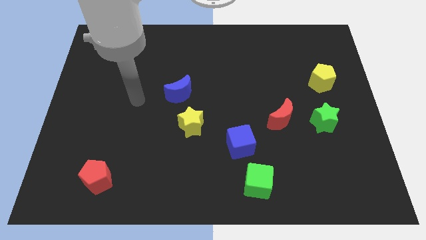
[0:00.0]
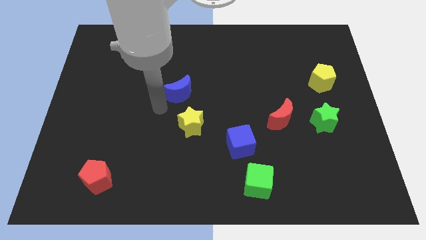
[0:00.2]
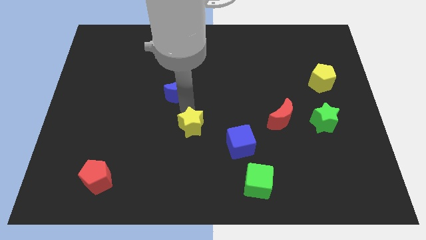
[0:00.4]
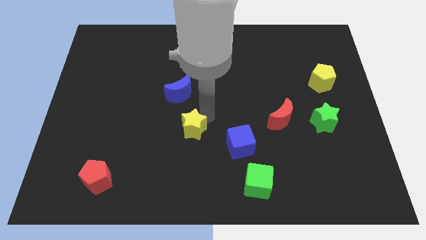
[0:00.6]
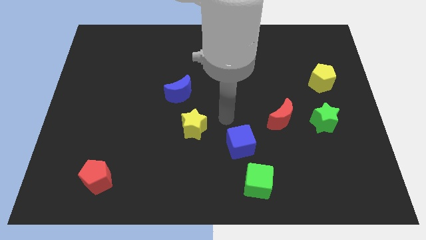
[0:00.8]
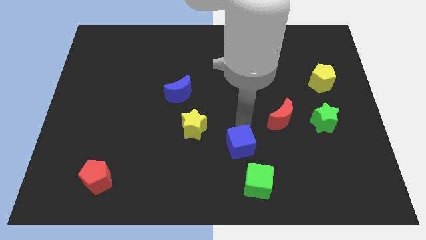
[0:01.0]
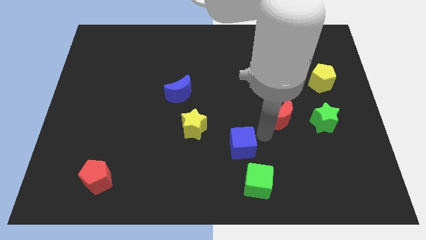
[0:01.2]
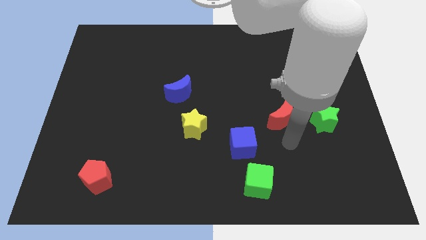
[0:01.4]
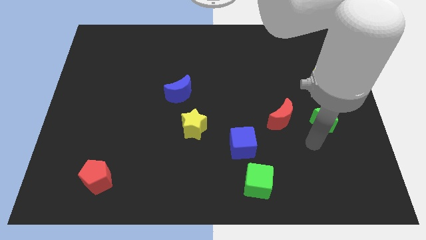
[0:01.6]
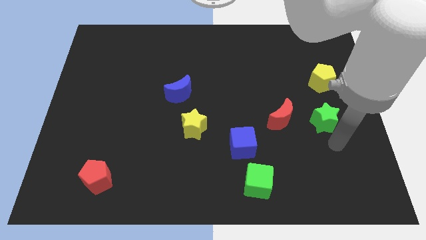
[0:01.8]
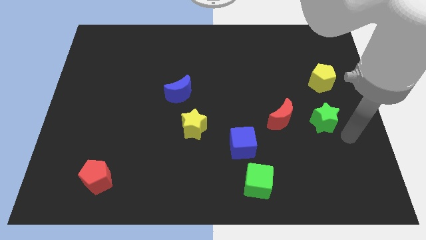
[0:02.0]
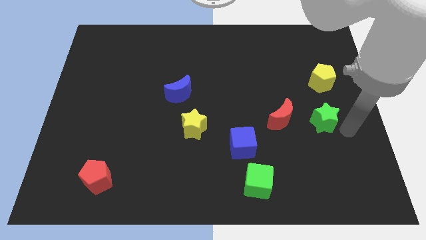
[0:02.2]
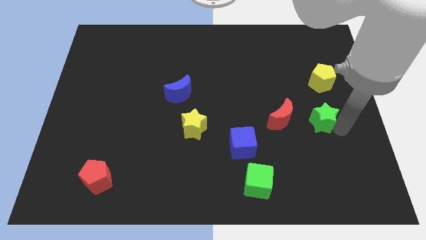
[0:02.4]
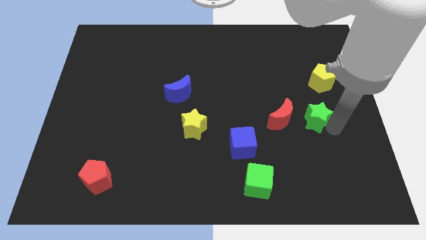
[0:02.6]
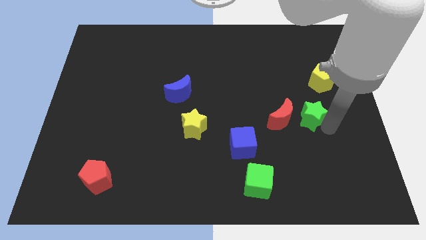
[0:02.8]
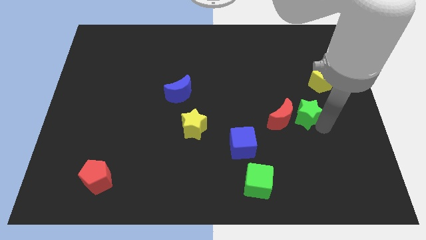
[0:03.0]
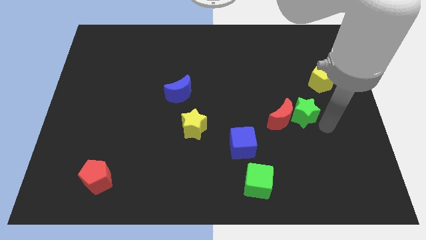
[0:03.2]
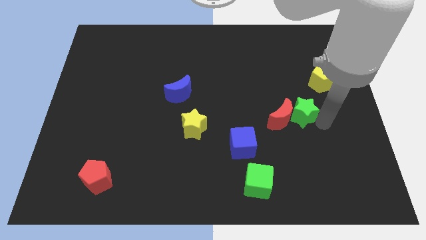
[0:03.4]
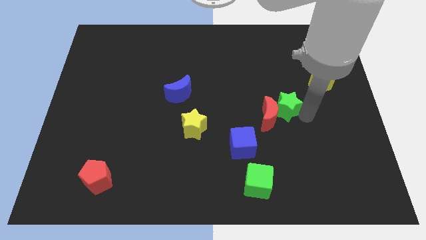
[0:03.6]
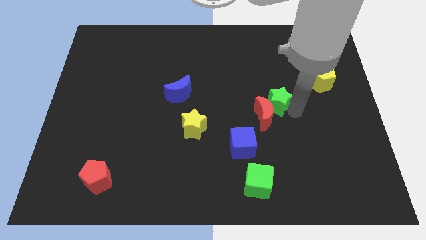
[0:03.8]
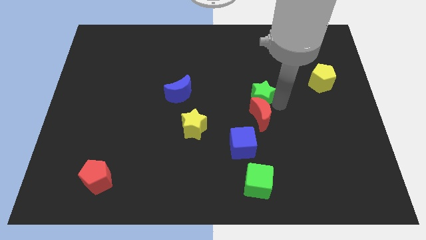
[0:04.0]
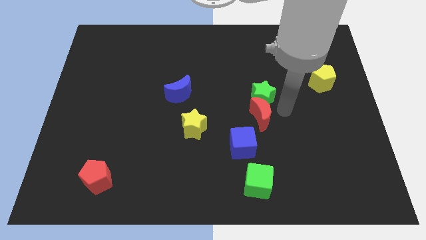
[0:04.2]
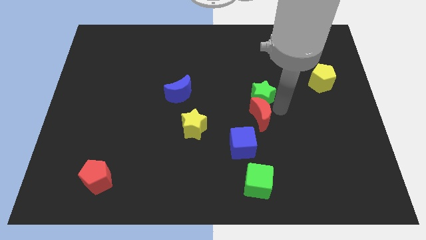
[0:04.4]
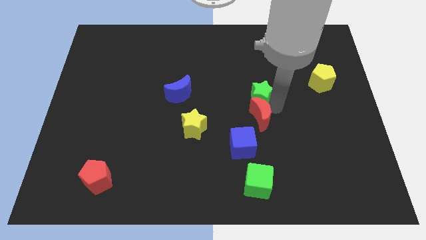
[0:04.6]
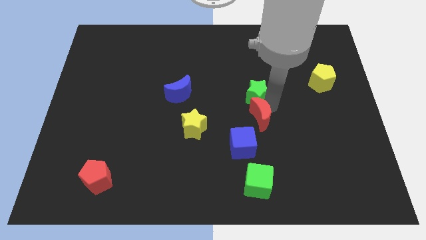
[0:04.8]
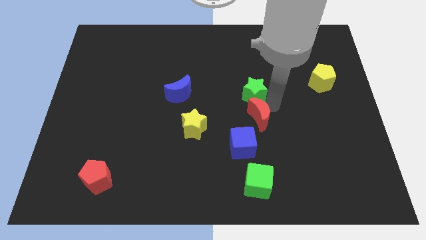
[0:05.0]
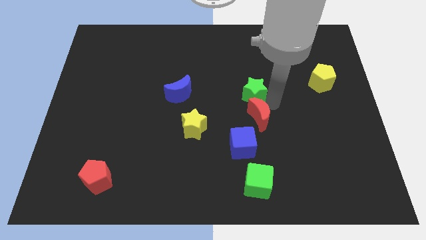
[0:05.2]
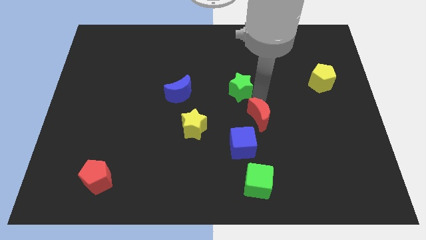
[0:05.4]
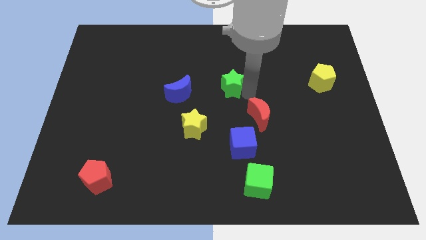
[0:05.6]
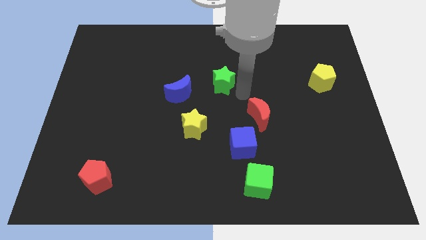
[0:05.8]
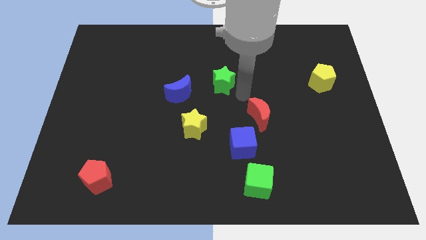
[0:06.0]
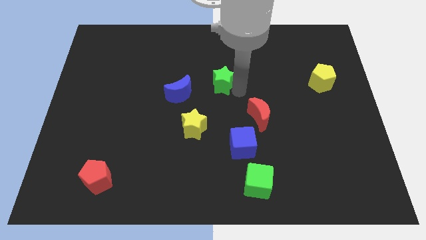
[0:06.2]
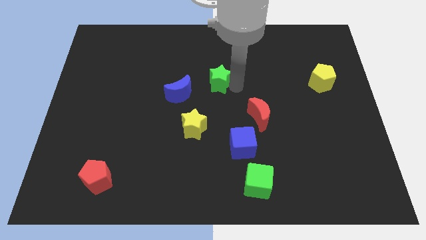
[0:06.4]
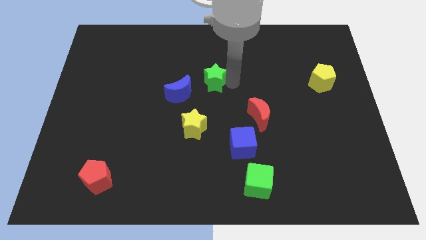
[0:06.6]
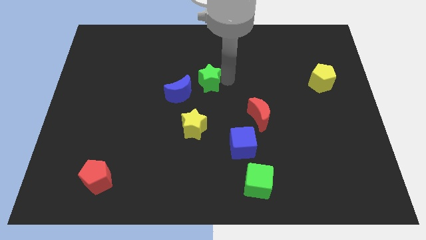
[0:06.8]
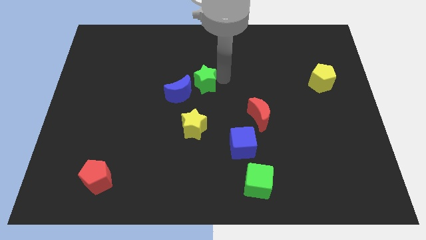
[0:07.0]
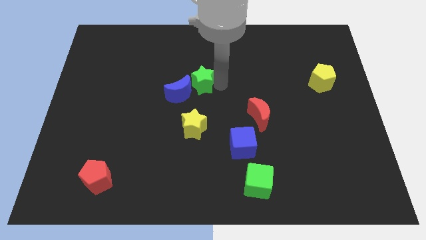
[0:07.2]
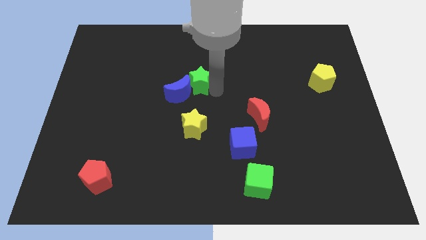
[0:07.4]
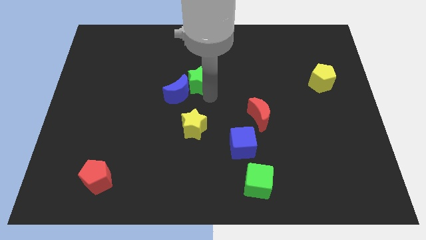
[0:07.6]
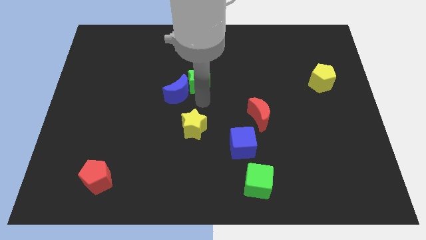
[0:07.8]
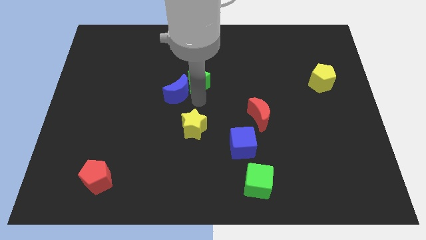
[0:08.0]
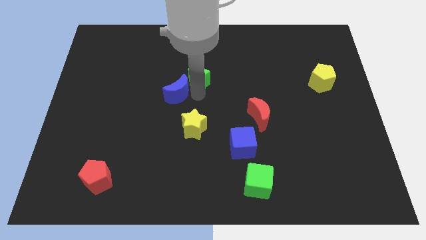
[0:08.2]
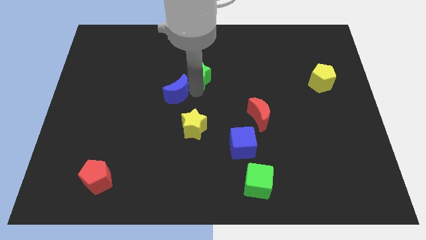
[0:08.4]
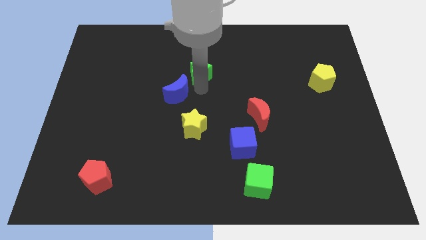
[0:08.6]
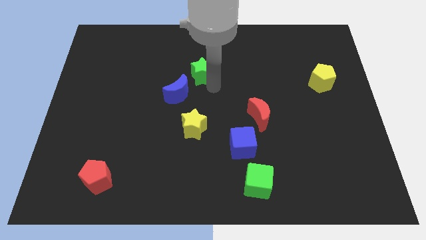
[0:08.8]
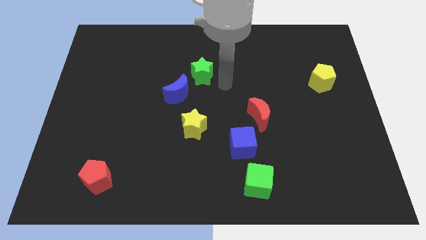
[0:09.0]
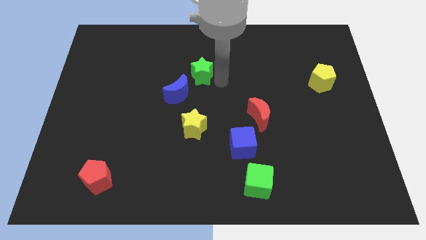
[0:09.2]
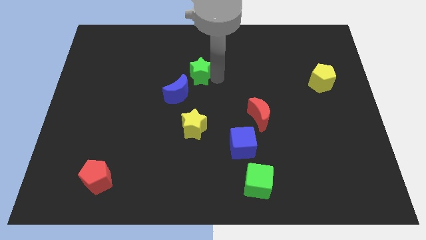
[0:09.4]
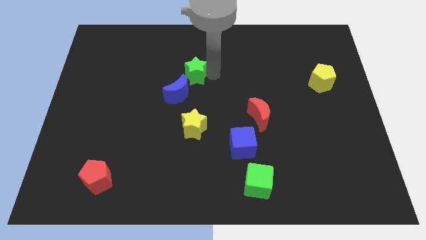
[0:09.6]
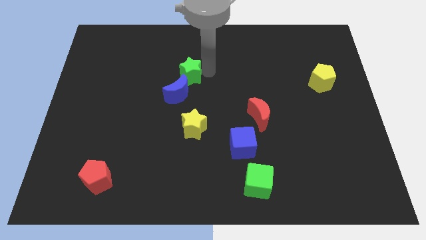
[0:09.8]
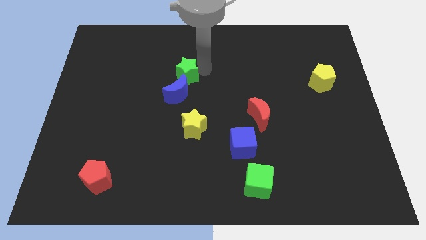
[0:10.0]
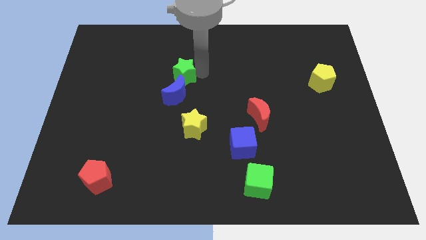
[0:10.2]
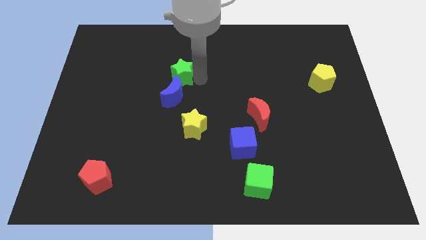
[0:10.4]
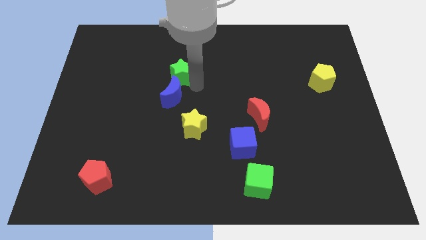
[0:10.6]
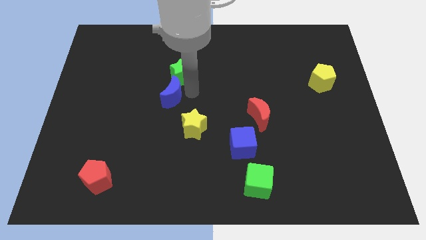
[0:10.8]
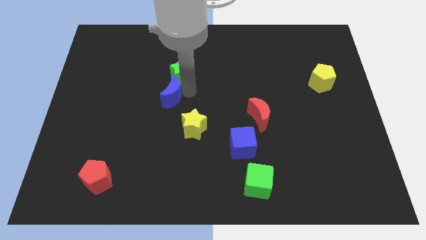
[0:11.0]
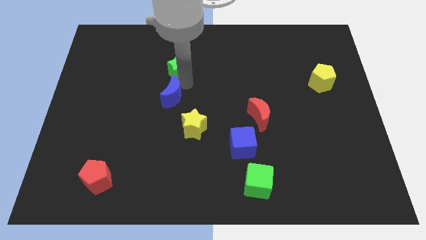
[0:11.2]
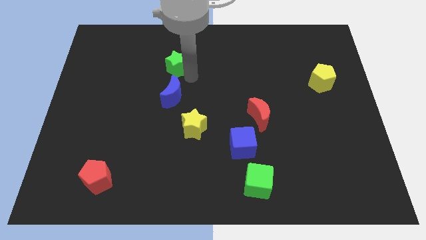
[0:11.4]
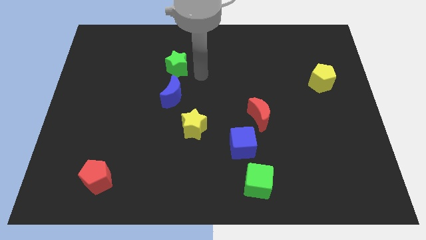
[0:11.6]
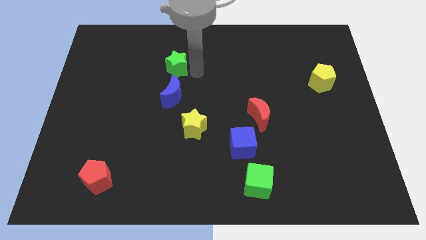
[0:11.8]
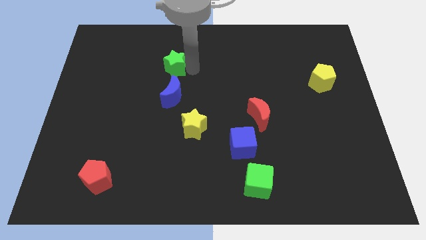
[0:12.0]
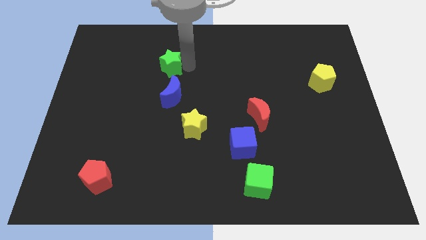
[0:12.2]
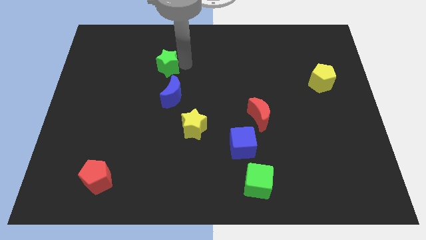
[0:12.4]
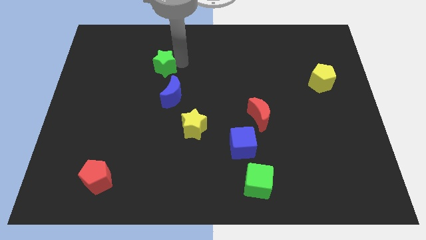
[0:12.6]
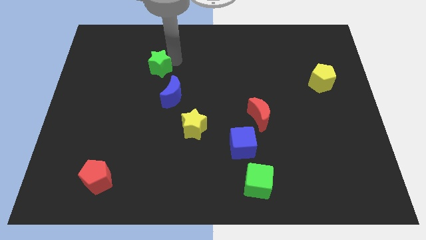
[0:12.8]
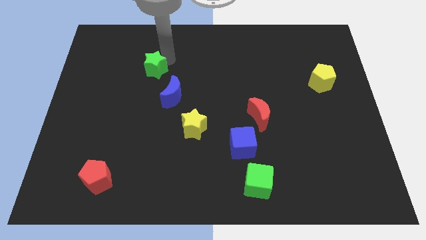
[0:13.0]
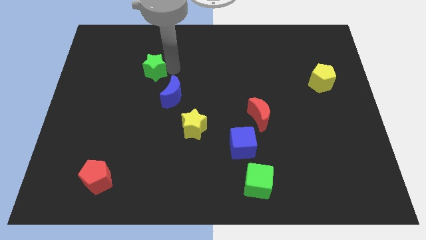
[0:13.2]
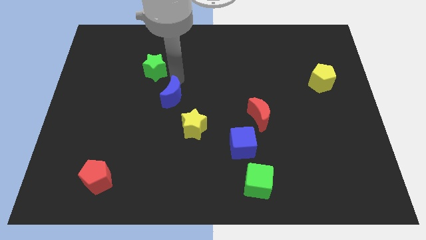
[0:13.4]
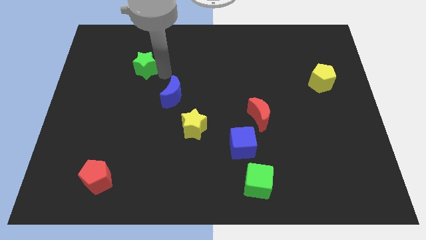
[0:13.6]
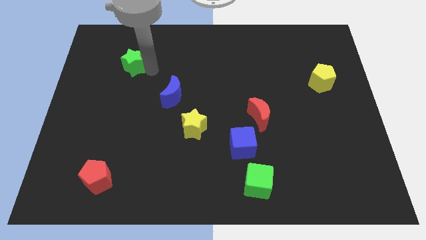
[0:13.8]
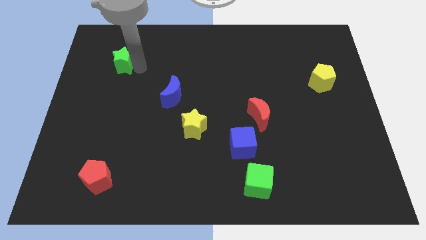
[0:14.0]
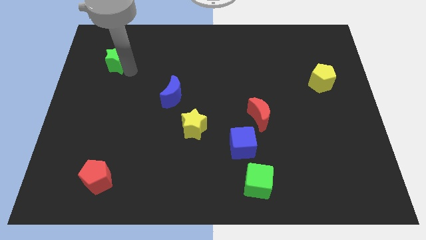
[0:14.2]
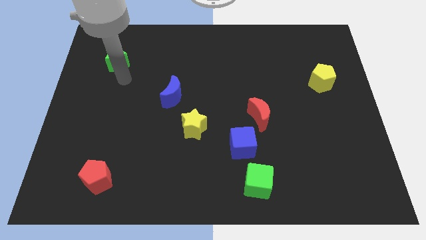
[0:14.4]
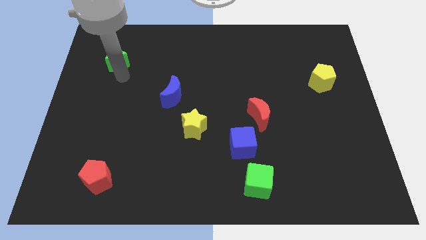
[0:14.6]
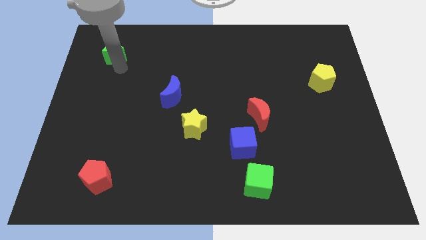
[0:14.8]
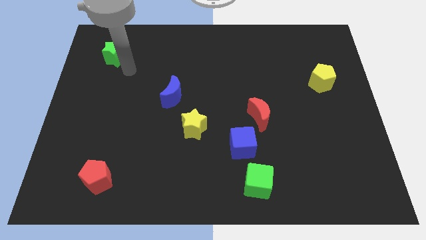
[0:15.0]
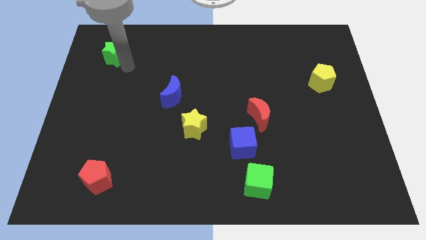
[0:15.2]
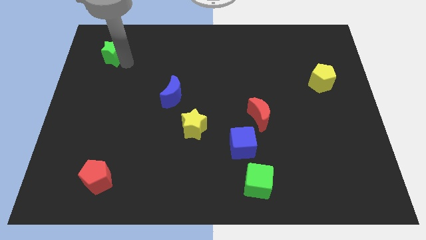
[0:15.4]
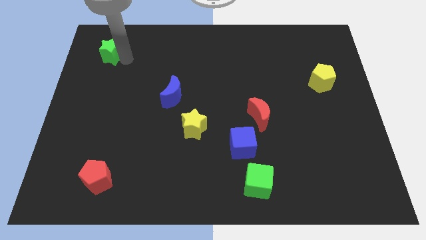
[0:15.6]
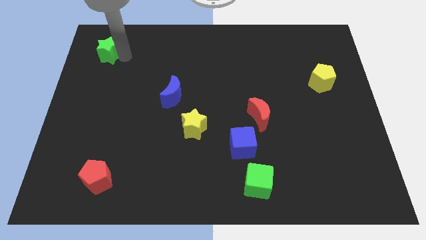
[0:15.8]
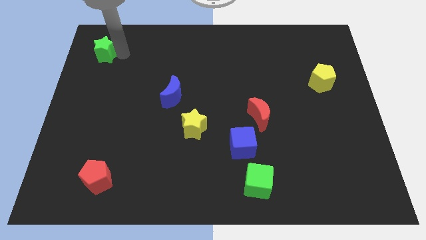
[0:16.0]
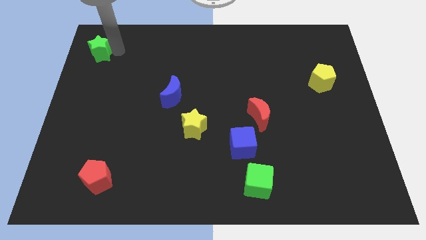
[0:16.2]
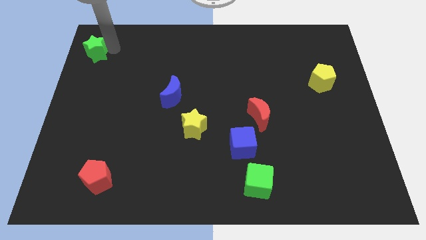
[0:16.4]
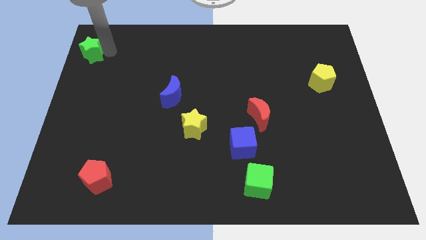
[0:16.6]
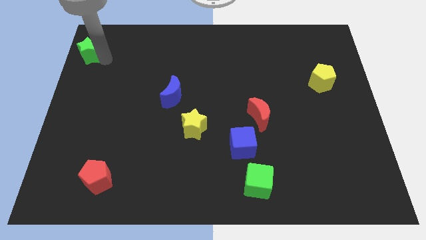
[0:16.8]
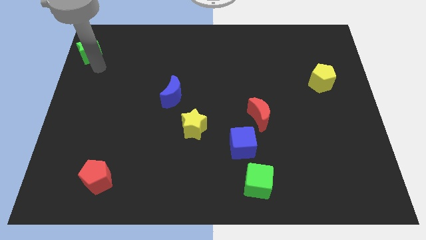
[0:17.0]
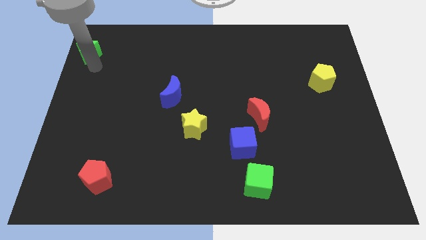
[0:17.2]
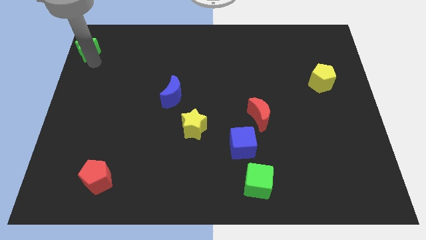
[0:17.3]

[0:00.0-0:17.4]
move the green star to the top left
